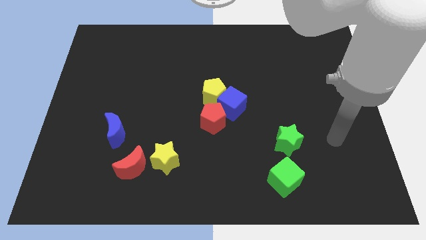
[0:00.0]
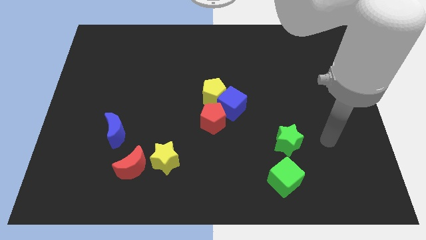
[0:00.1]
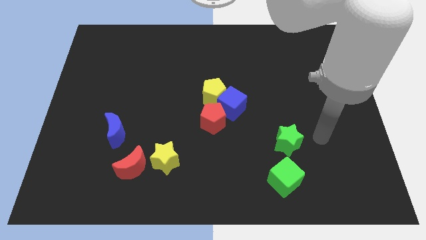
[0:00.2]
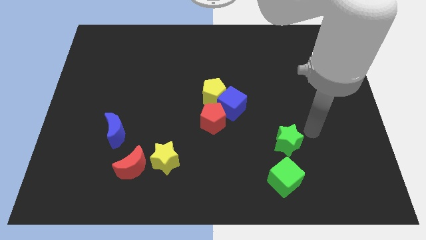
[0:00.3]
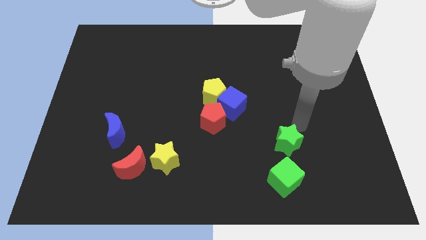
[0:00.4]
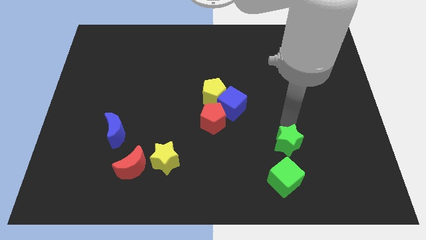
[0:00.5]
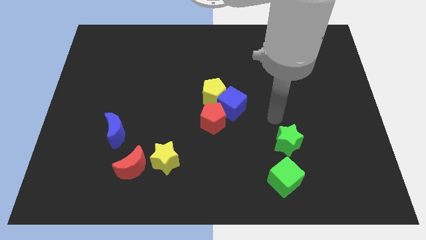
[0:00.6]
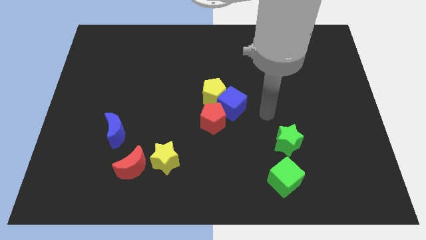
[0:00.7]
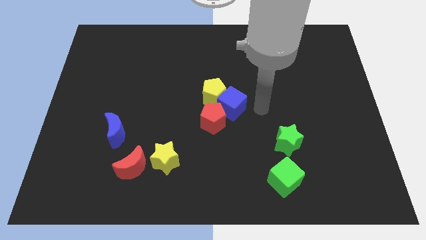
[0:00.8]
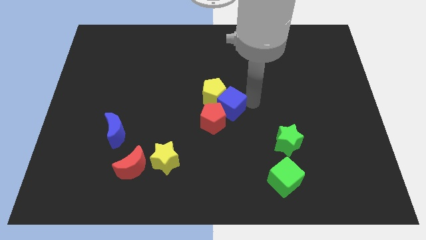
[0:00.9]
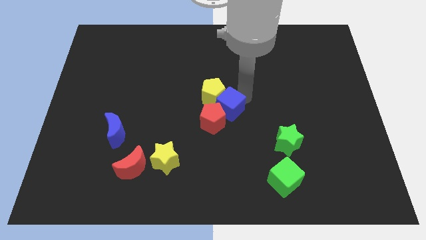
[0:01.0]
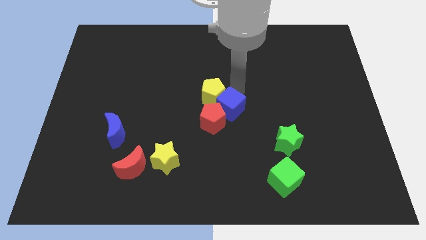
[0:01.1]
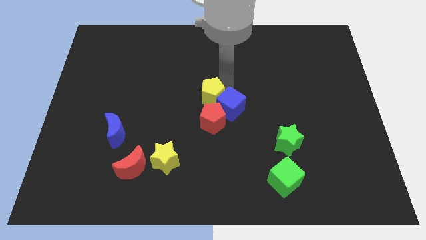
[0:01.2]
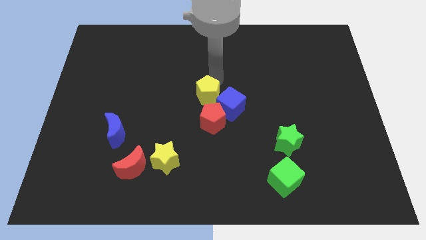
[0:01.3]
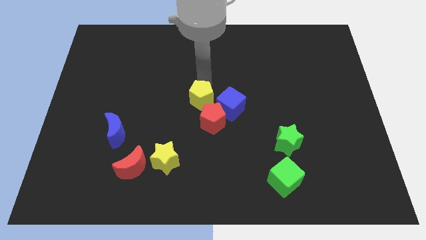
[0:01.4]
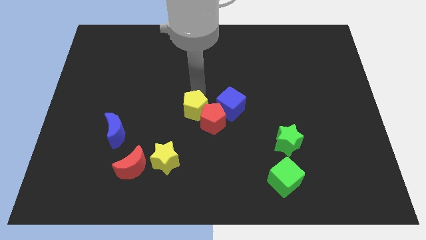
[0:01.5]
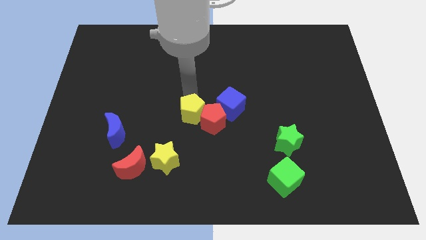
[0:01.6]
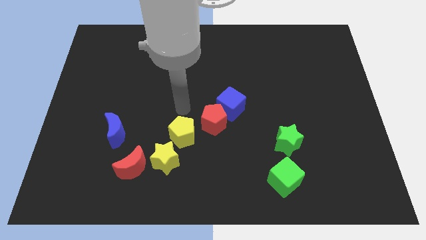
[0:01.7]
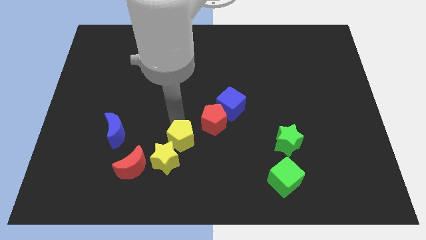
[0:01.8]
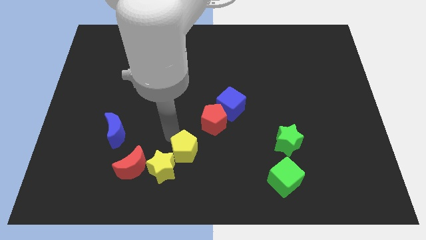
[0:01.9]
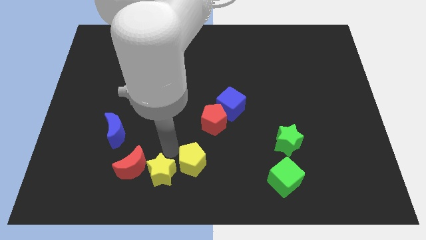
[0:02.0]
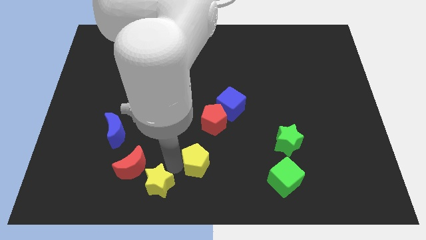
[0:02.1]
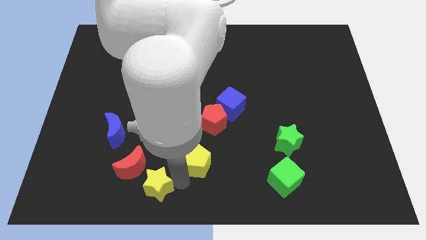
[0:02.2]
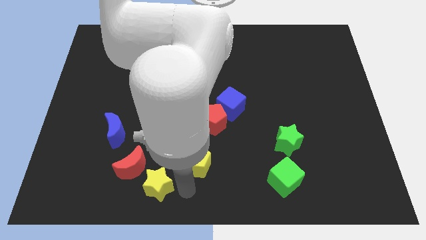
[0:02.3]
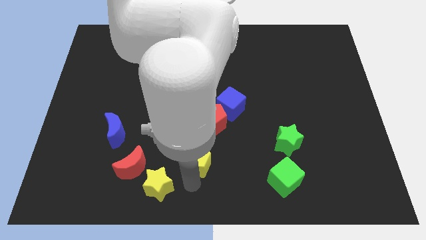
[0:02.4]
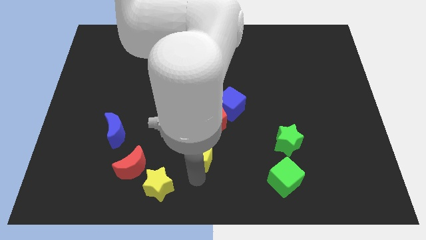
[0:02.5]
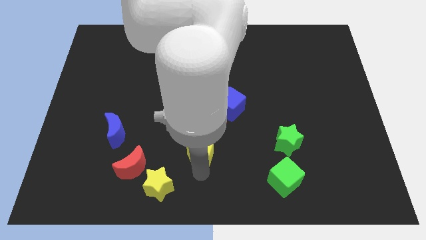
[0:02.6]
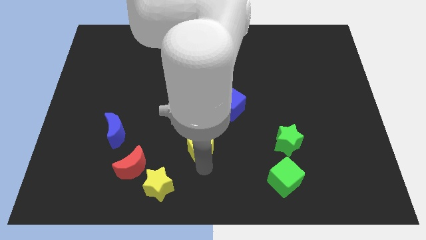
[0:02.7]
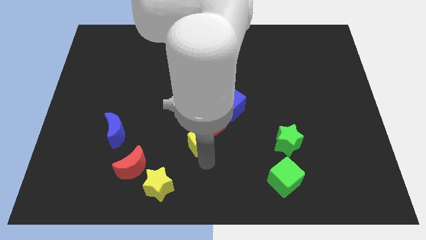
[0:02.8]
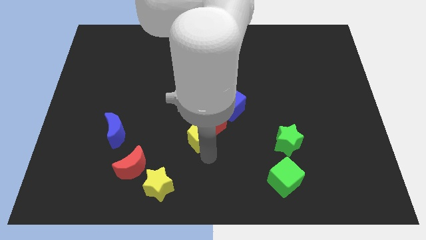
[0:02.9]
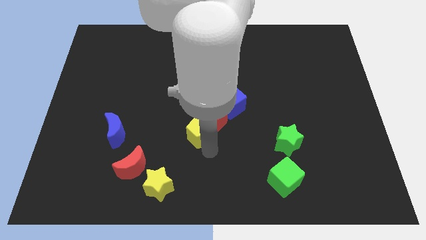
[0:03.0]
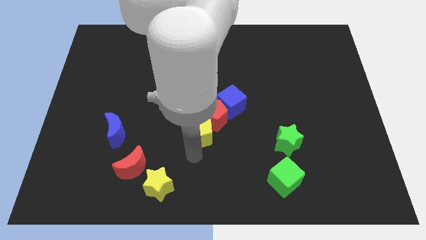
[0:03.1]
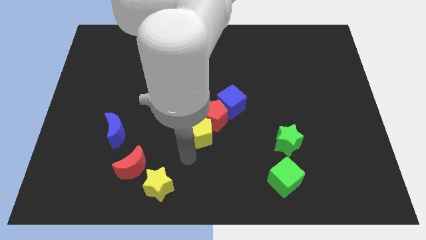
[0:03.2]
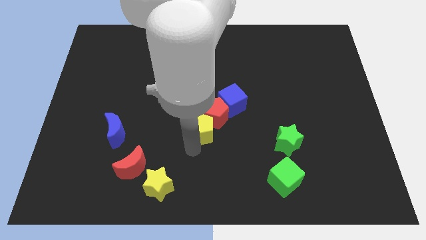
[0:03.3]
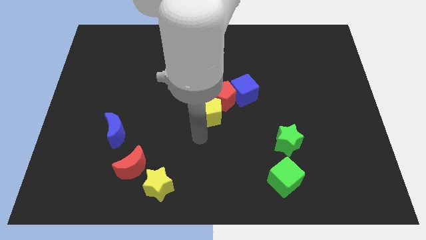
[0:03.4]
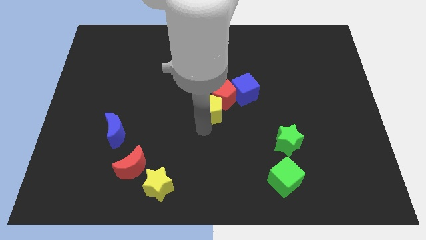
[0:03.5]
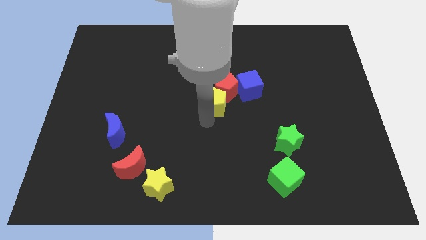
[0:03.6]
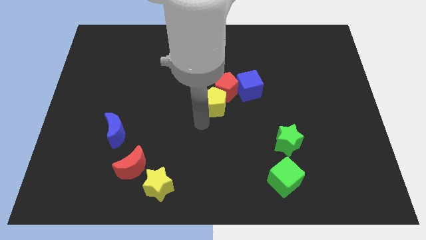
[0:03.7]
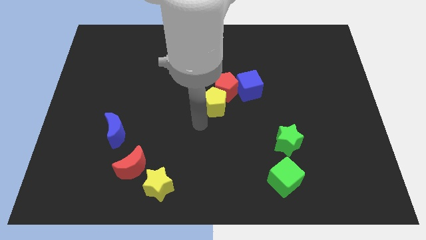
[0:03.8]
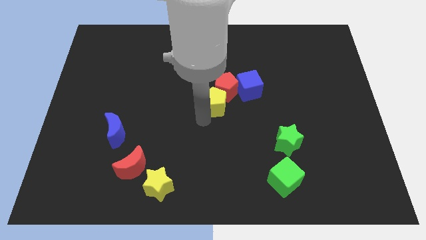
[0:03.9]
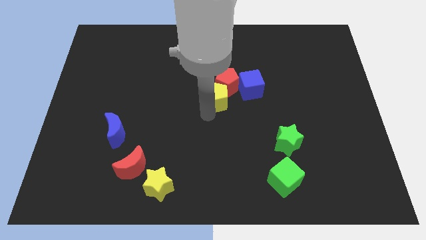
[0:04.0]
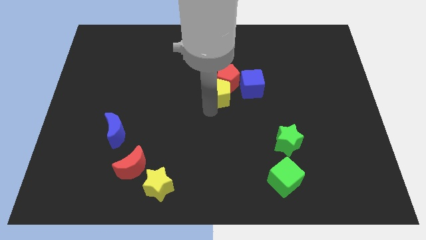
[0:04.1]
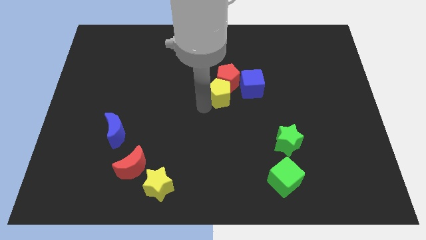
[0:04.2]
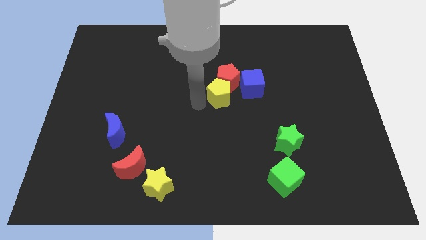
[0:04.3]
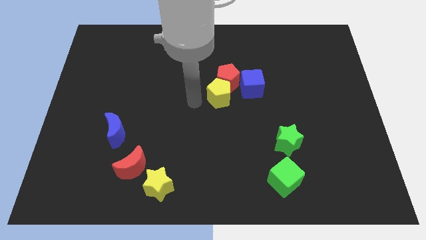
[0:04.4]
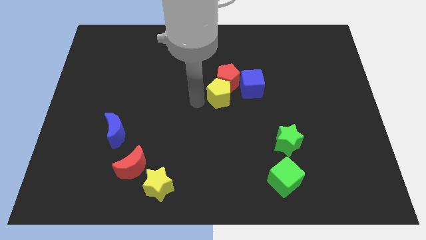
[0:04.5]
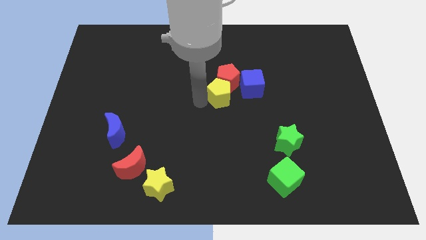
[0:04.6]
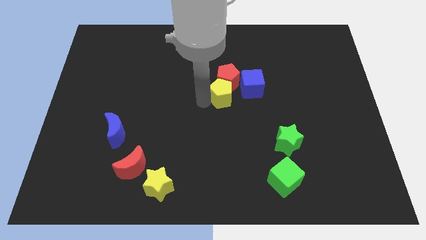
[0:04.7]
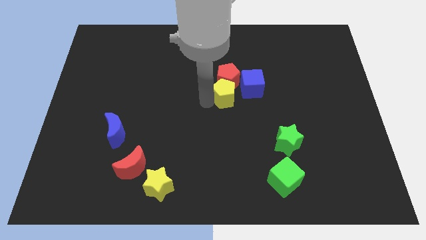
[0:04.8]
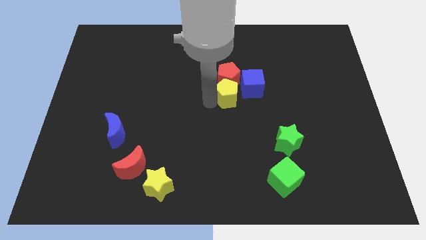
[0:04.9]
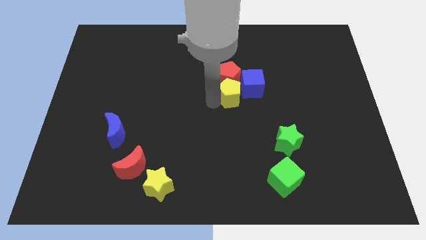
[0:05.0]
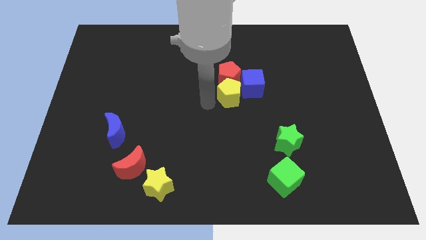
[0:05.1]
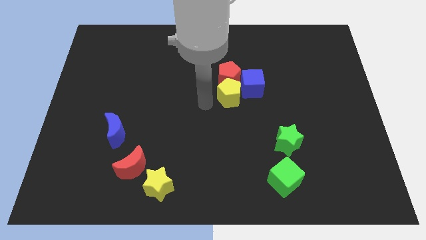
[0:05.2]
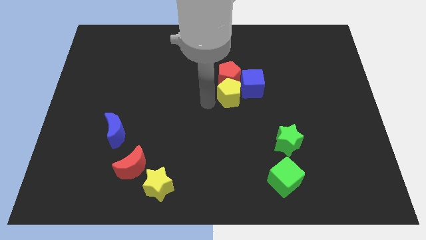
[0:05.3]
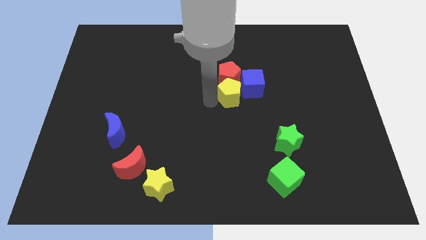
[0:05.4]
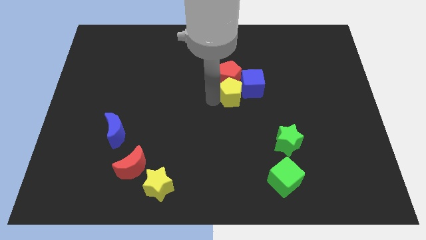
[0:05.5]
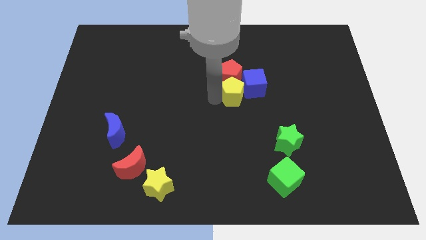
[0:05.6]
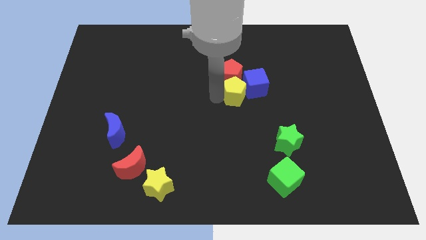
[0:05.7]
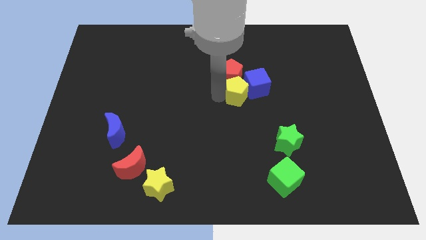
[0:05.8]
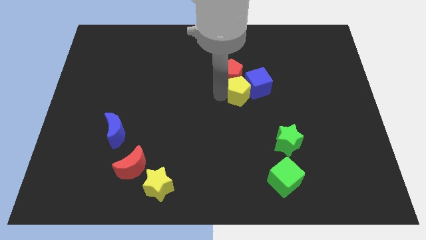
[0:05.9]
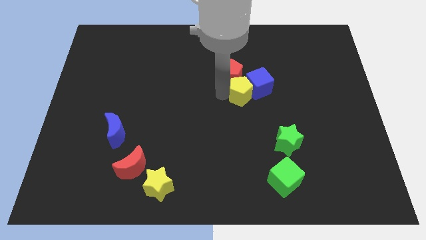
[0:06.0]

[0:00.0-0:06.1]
slide the yellow pentagon slightly right

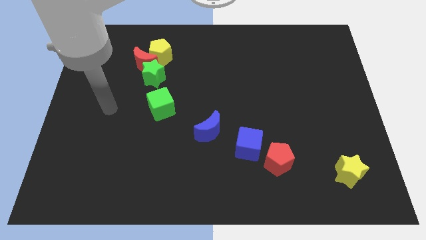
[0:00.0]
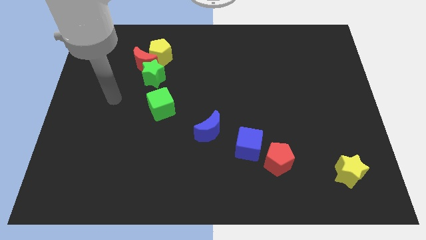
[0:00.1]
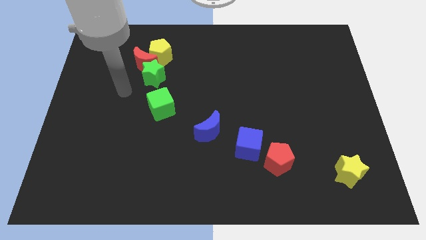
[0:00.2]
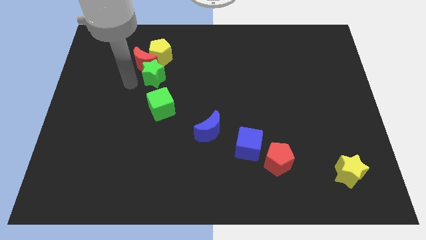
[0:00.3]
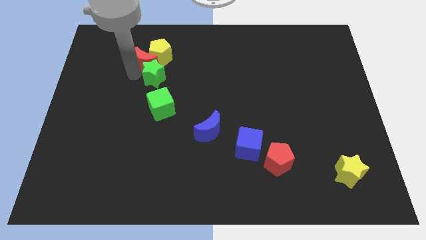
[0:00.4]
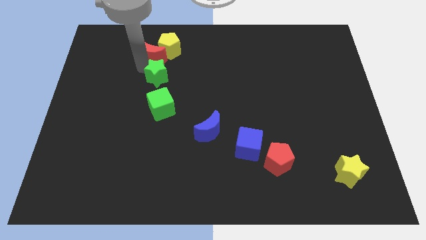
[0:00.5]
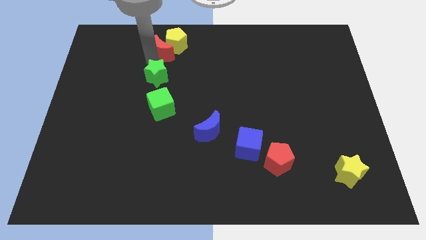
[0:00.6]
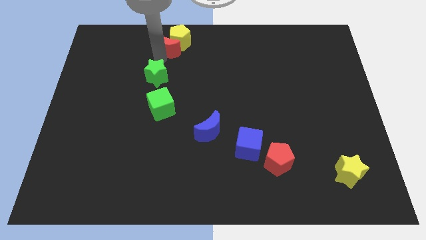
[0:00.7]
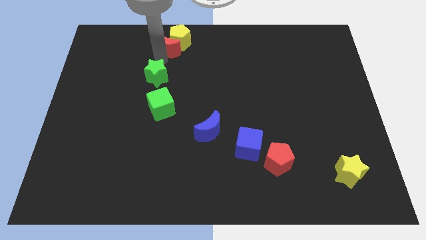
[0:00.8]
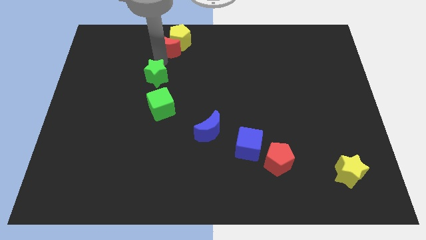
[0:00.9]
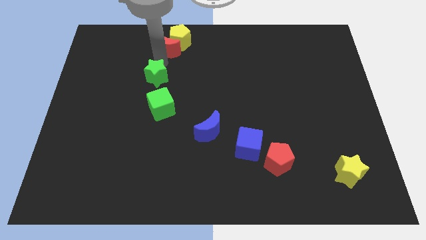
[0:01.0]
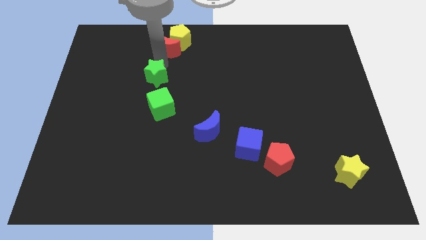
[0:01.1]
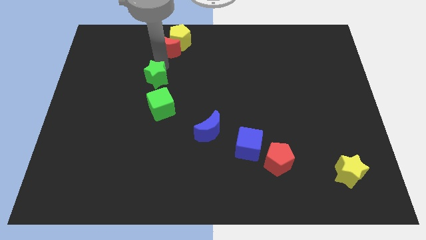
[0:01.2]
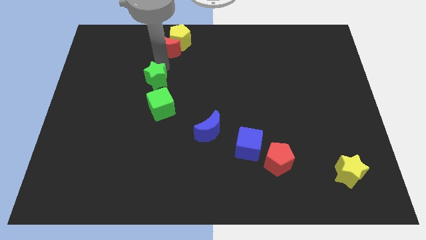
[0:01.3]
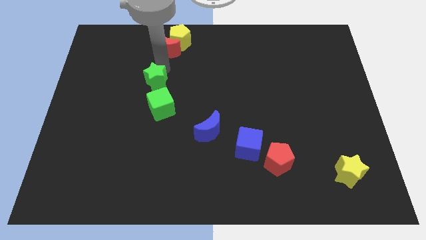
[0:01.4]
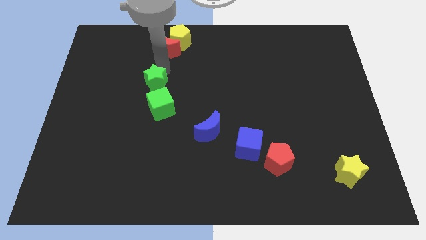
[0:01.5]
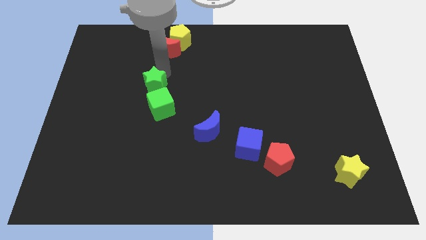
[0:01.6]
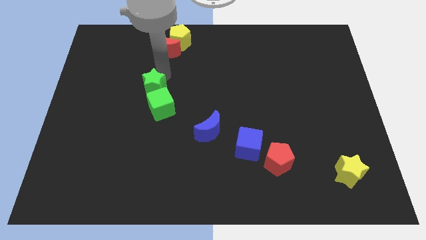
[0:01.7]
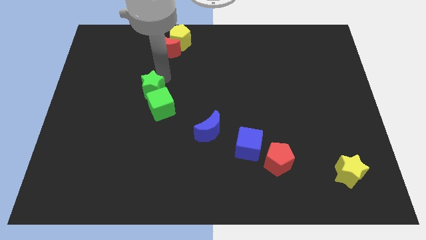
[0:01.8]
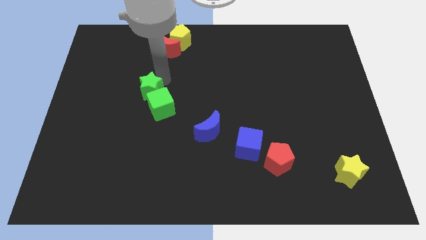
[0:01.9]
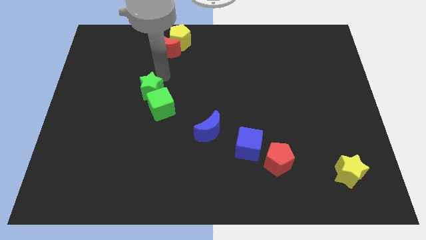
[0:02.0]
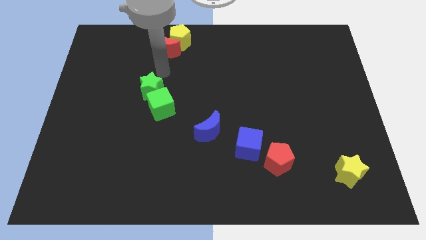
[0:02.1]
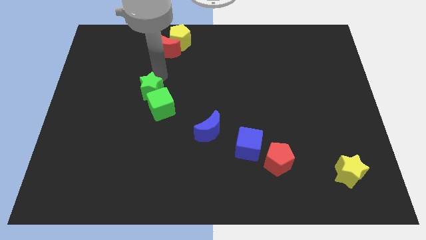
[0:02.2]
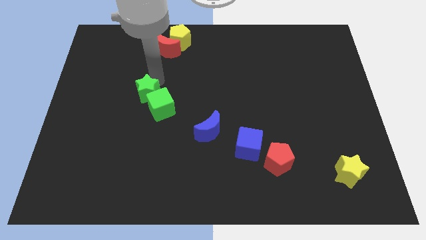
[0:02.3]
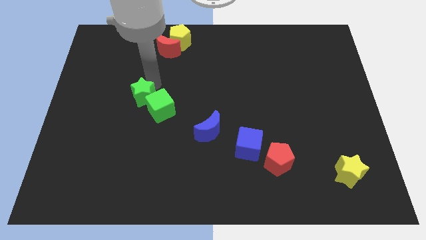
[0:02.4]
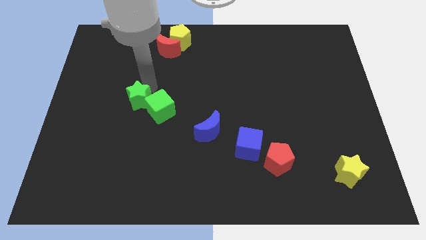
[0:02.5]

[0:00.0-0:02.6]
slightly move the green star down
